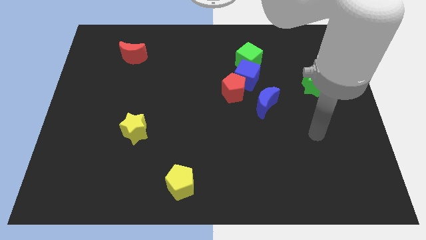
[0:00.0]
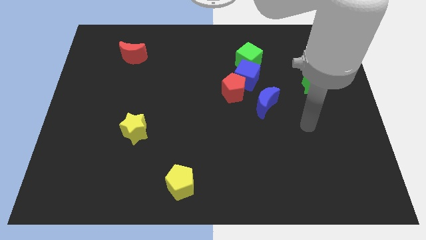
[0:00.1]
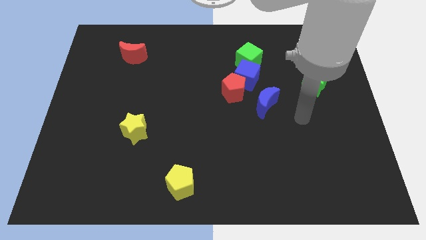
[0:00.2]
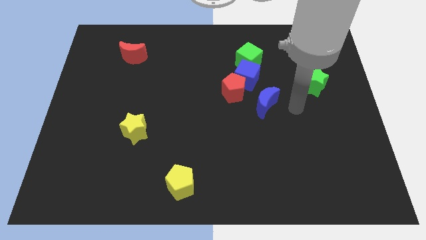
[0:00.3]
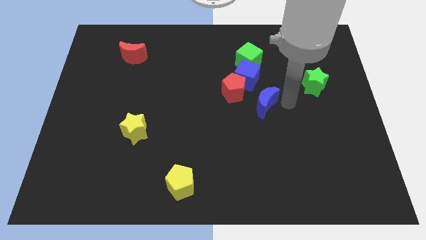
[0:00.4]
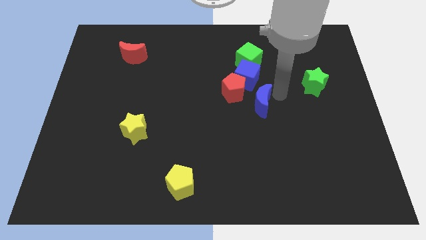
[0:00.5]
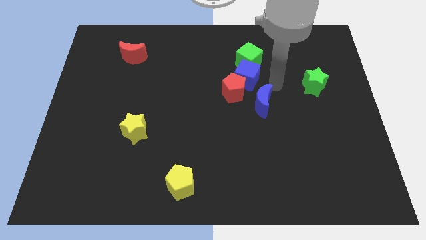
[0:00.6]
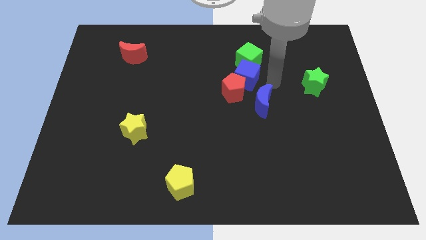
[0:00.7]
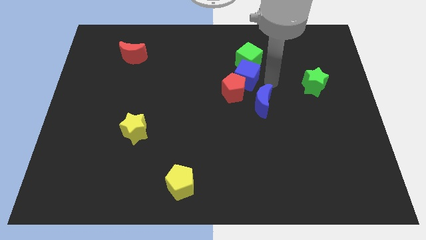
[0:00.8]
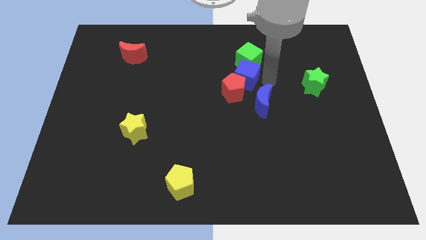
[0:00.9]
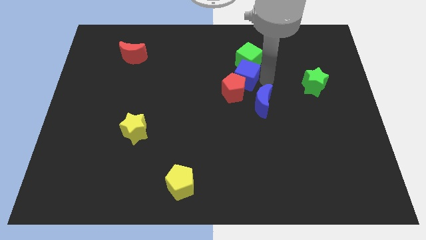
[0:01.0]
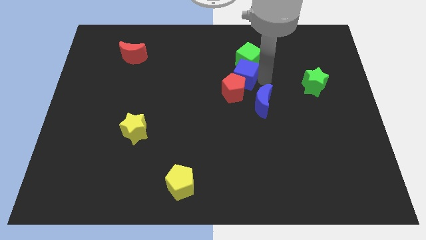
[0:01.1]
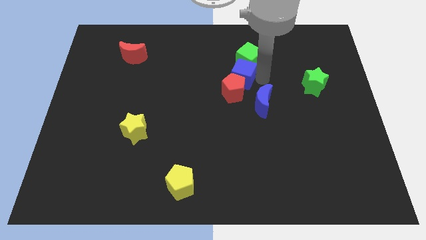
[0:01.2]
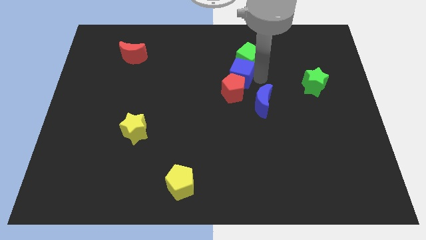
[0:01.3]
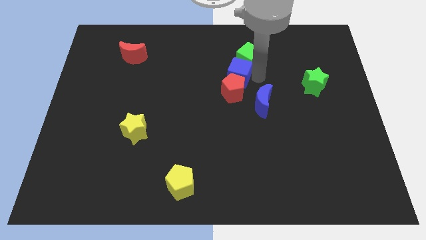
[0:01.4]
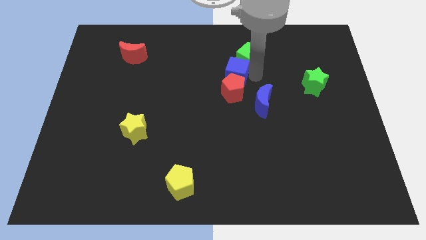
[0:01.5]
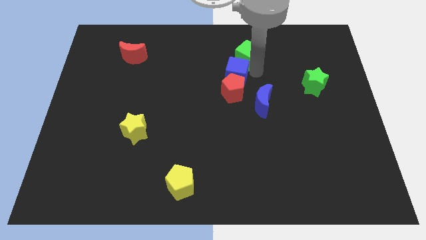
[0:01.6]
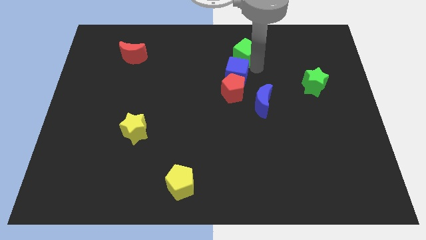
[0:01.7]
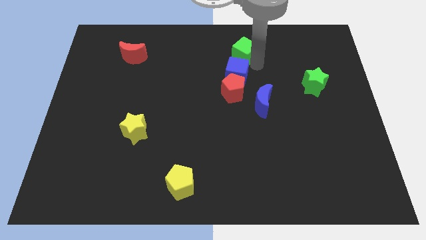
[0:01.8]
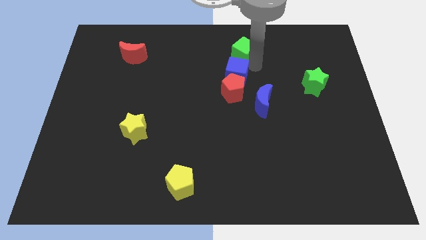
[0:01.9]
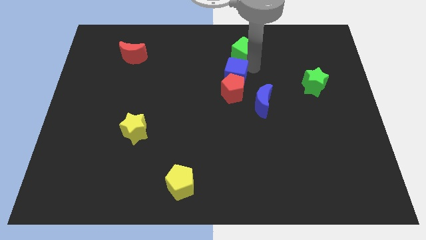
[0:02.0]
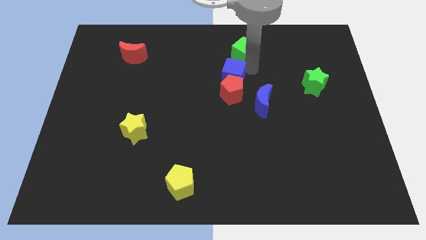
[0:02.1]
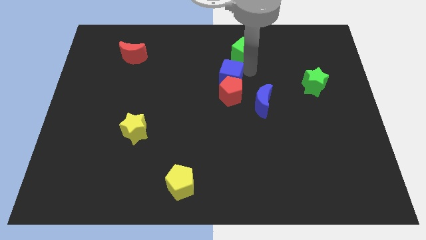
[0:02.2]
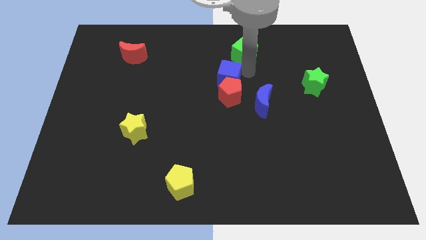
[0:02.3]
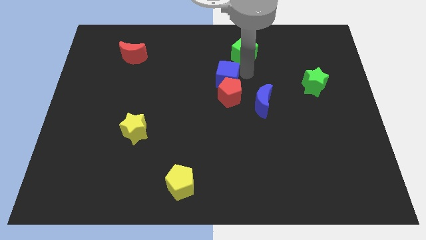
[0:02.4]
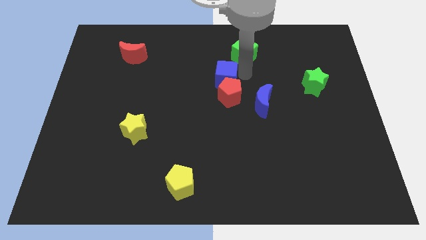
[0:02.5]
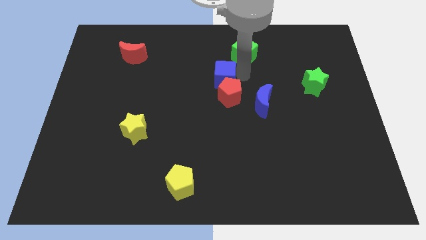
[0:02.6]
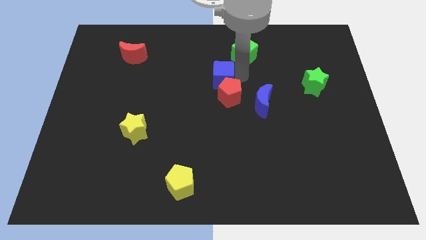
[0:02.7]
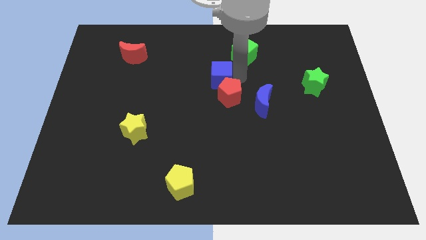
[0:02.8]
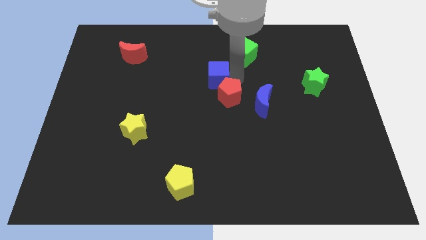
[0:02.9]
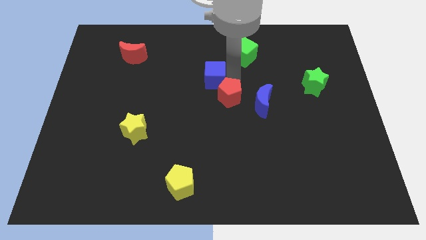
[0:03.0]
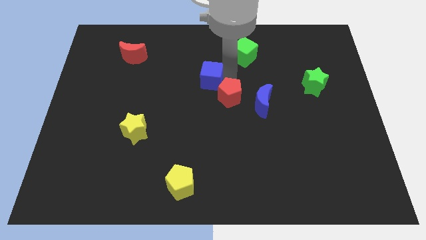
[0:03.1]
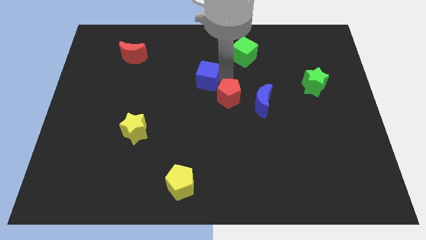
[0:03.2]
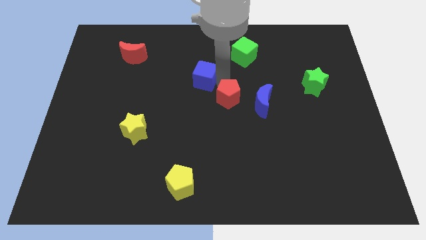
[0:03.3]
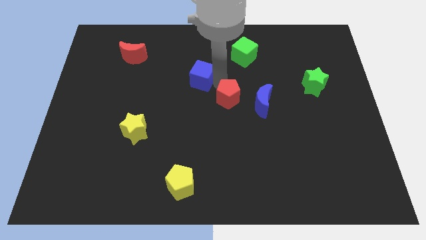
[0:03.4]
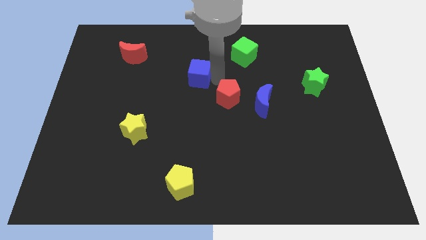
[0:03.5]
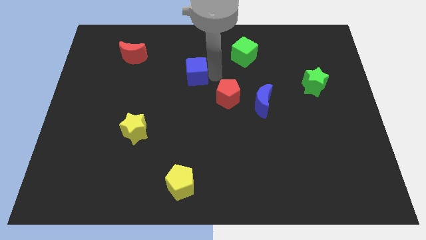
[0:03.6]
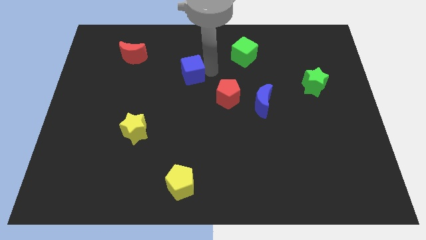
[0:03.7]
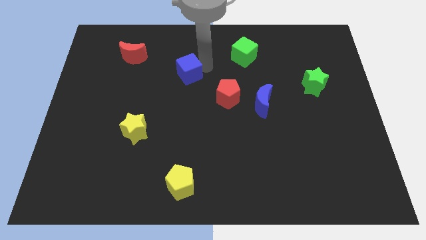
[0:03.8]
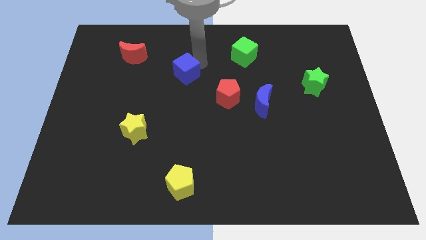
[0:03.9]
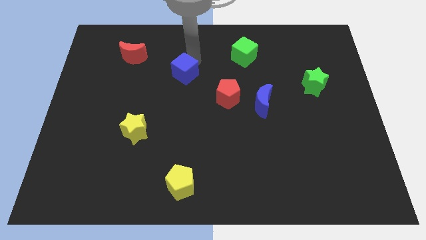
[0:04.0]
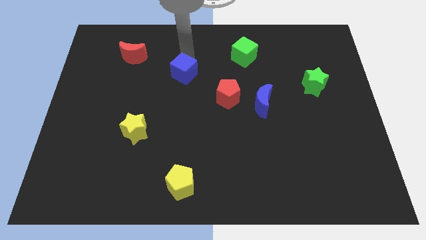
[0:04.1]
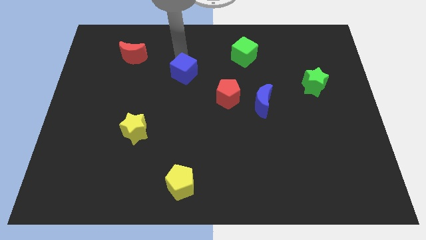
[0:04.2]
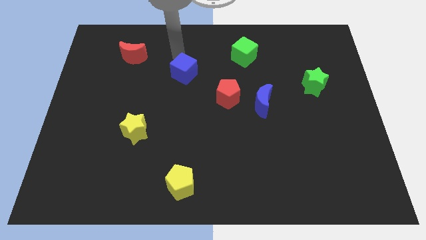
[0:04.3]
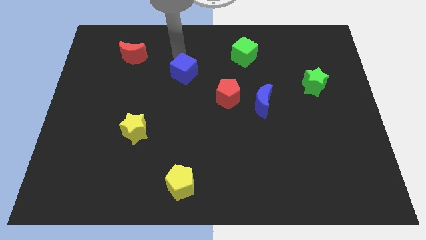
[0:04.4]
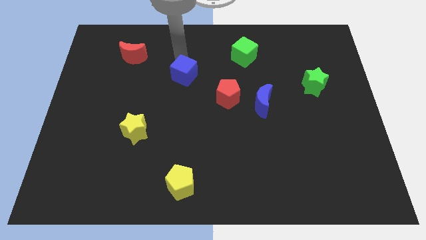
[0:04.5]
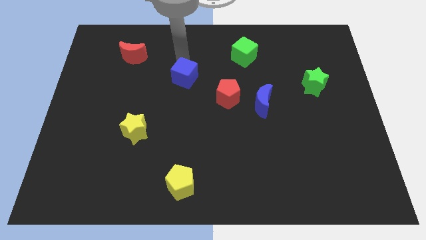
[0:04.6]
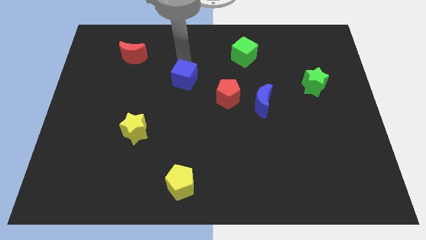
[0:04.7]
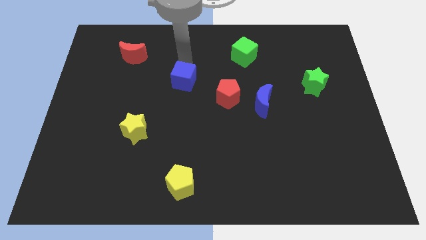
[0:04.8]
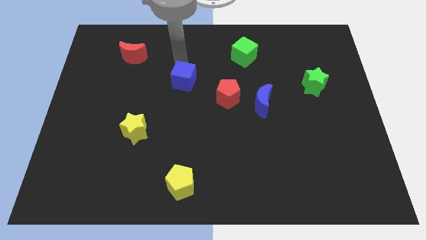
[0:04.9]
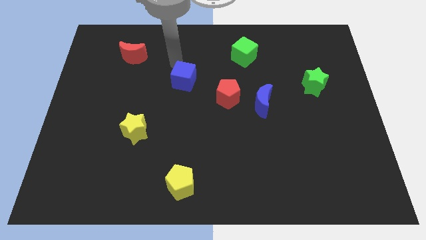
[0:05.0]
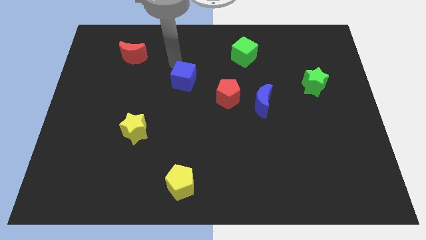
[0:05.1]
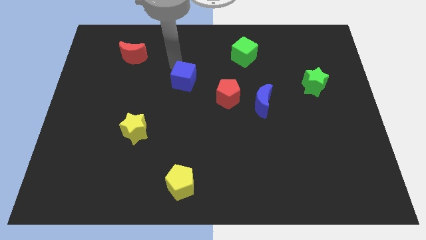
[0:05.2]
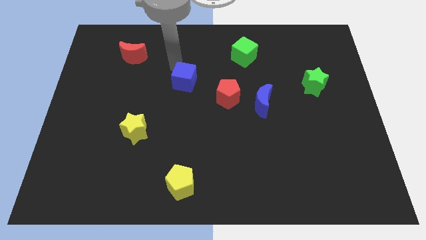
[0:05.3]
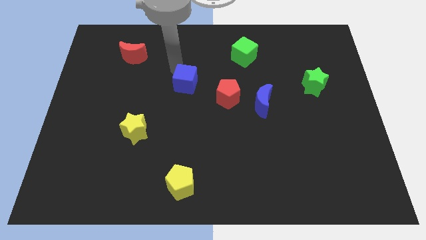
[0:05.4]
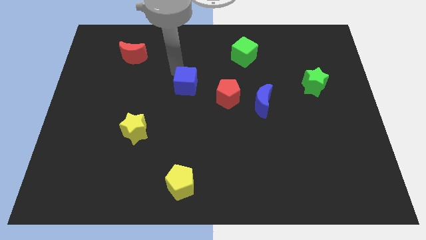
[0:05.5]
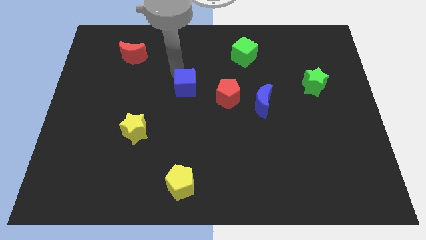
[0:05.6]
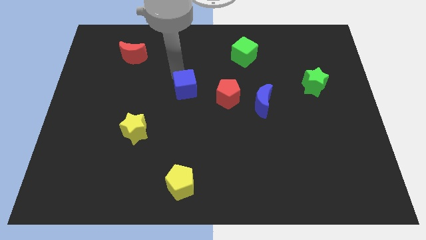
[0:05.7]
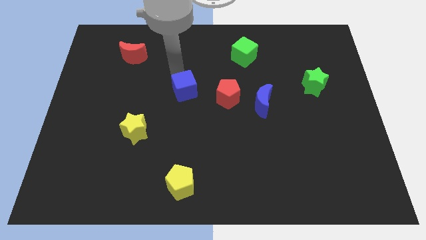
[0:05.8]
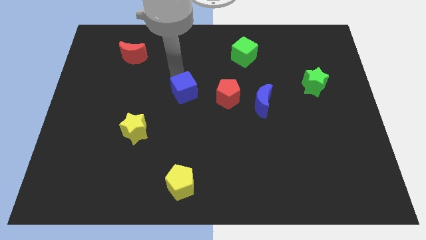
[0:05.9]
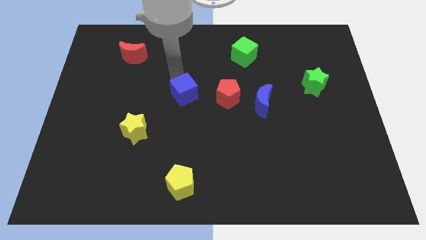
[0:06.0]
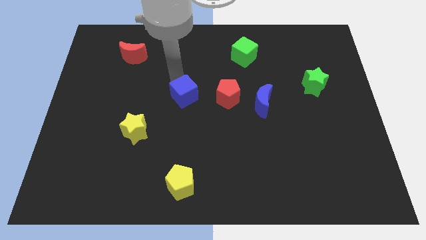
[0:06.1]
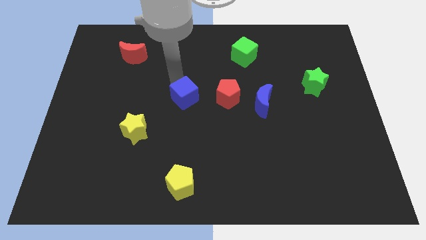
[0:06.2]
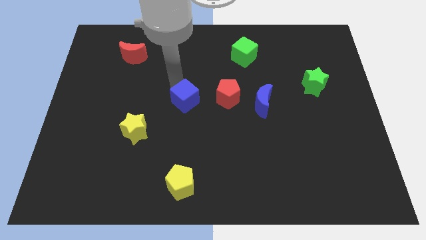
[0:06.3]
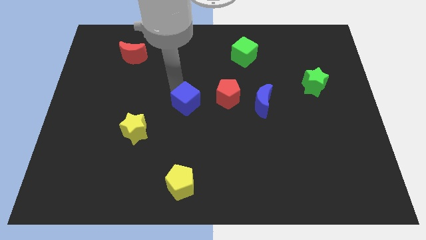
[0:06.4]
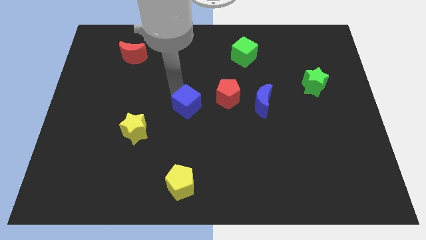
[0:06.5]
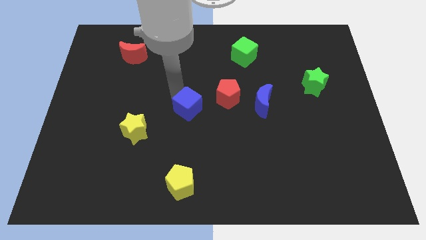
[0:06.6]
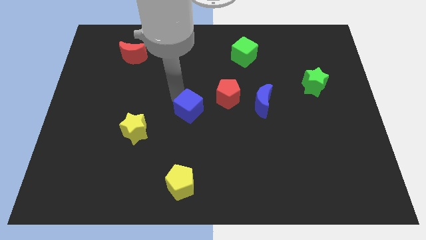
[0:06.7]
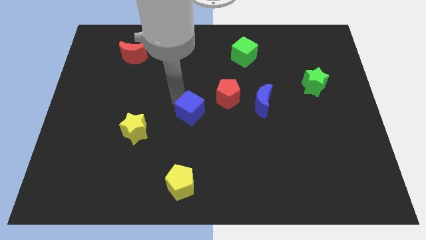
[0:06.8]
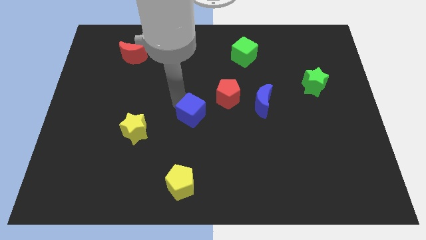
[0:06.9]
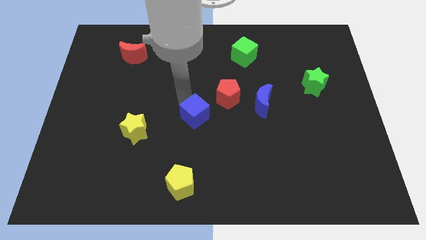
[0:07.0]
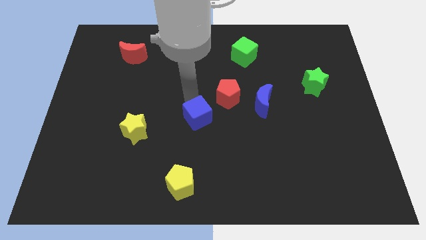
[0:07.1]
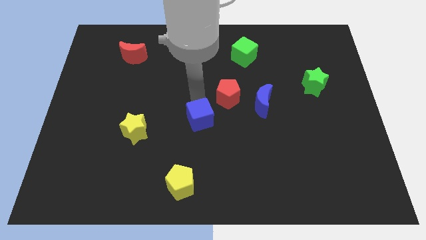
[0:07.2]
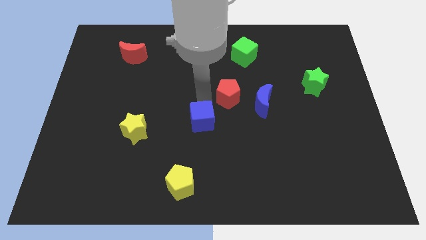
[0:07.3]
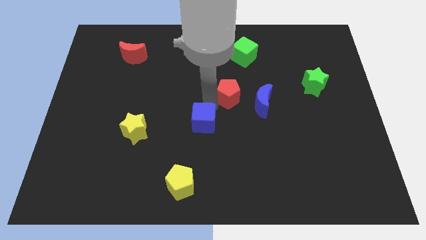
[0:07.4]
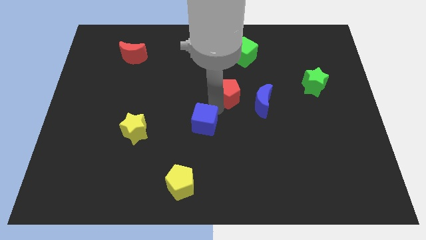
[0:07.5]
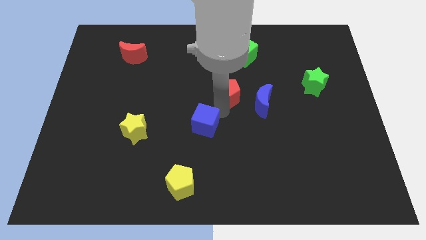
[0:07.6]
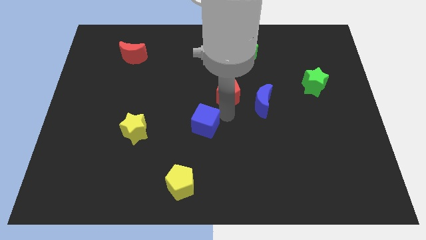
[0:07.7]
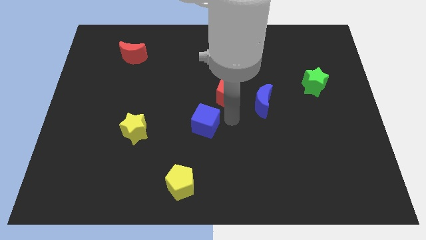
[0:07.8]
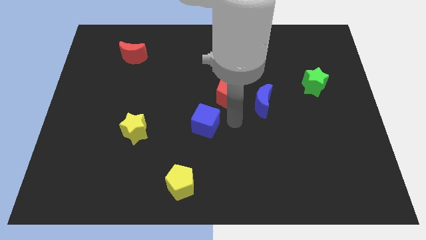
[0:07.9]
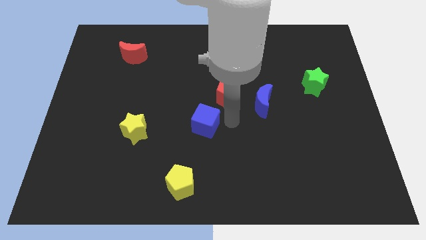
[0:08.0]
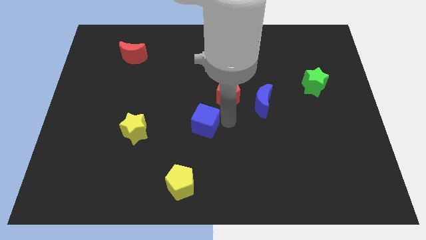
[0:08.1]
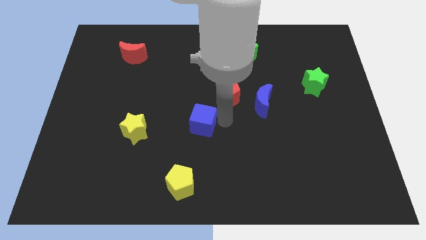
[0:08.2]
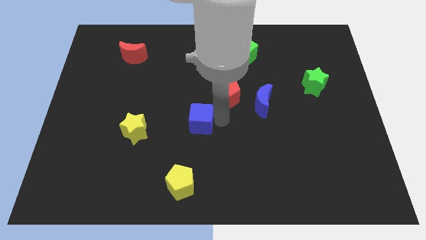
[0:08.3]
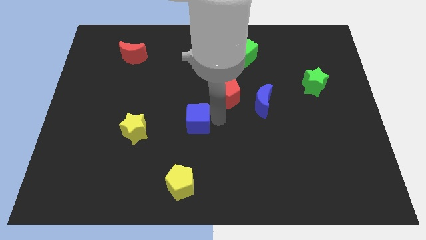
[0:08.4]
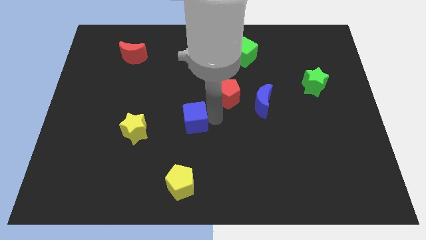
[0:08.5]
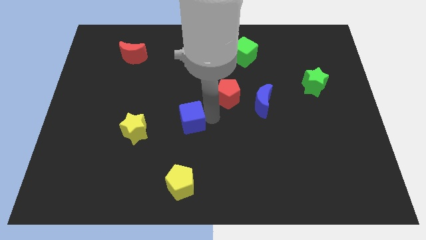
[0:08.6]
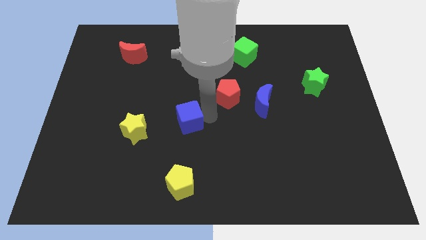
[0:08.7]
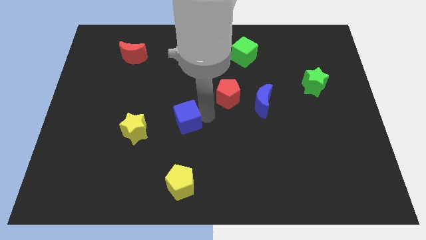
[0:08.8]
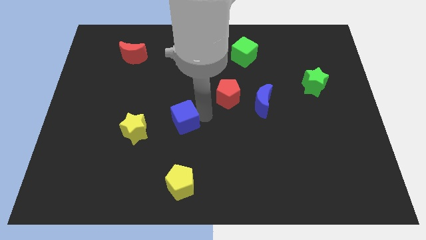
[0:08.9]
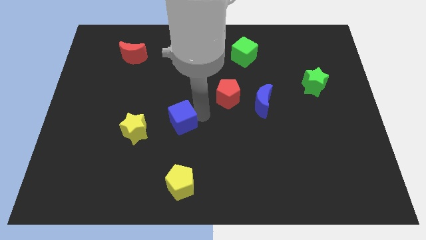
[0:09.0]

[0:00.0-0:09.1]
slide the blue cube down and then to the left
